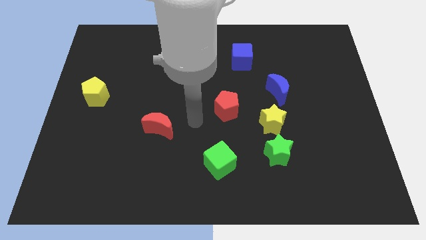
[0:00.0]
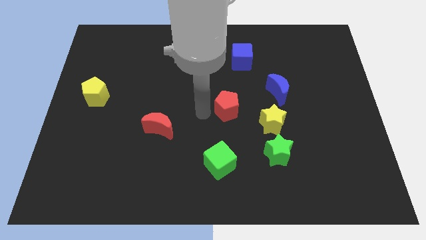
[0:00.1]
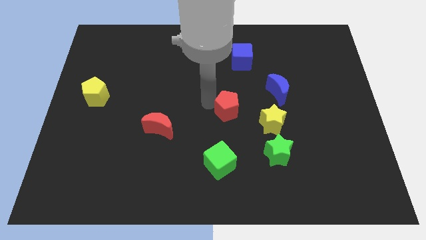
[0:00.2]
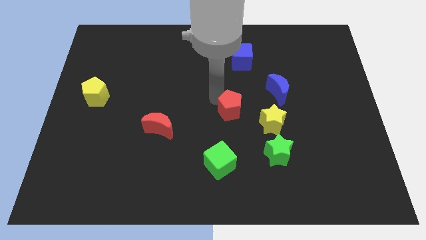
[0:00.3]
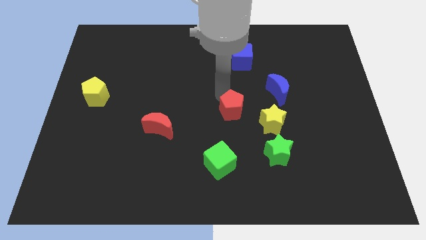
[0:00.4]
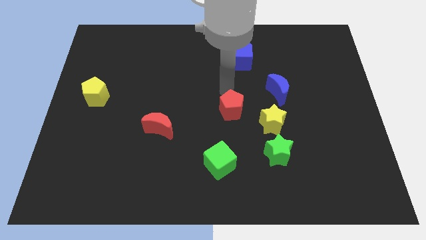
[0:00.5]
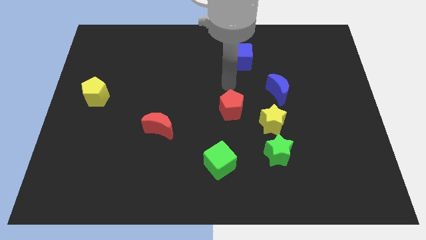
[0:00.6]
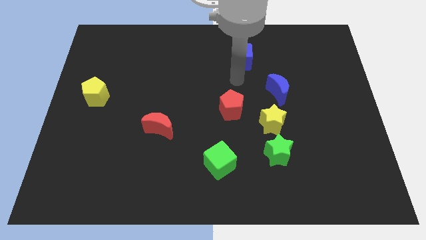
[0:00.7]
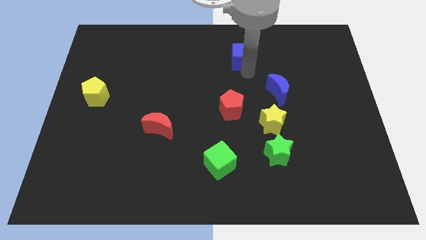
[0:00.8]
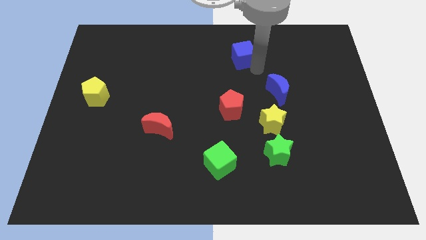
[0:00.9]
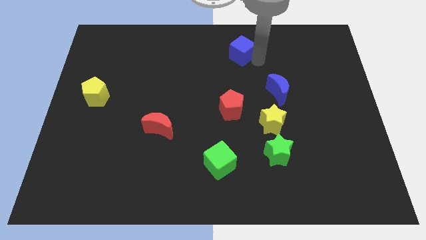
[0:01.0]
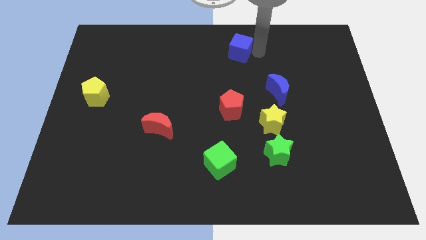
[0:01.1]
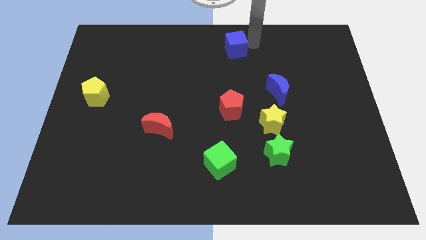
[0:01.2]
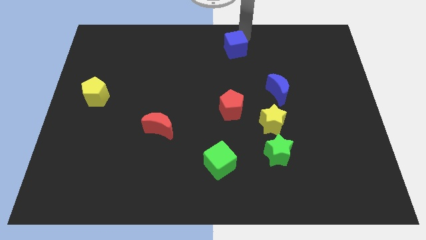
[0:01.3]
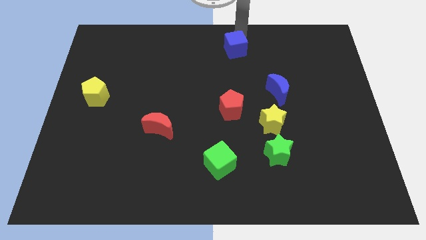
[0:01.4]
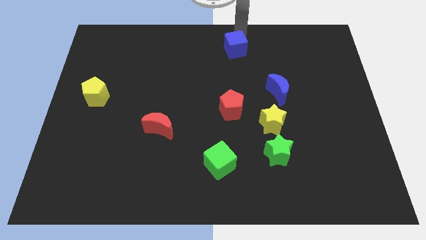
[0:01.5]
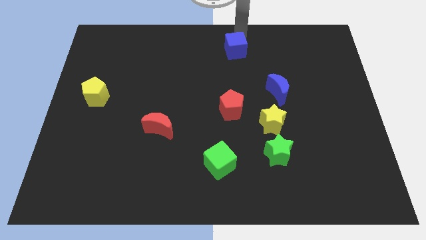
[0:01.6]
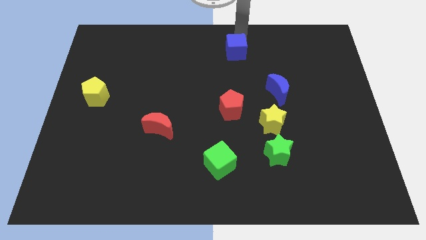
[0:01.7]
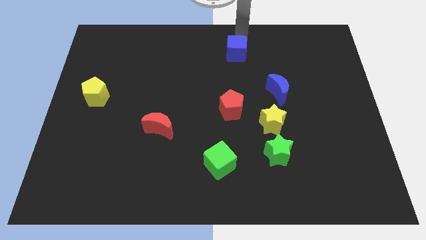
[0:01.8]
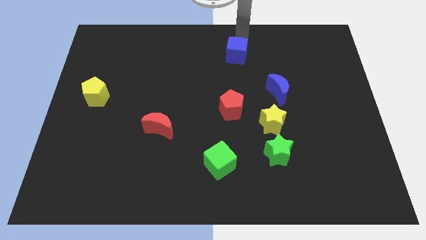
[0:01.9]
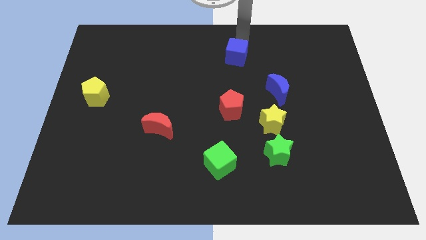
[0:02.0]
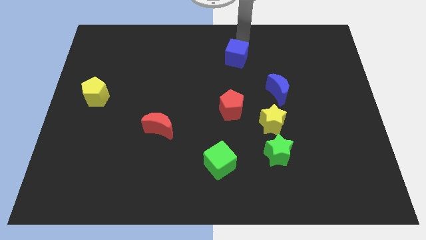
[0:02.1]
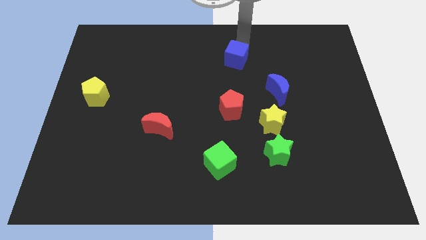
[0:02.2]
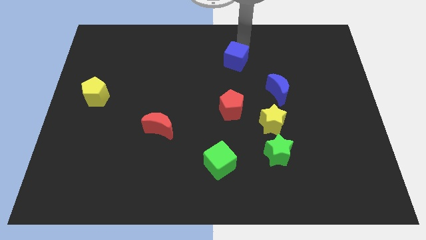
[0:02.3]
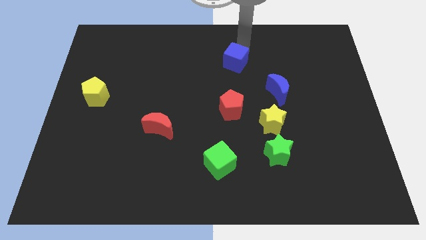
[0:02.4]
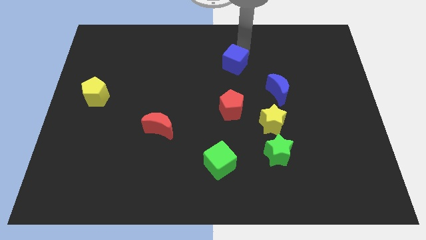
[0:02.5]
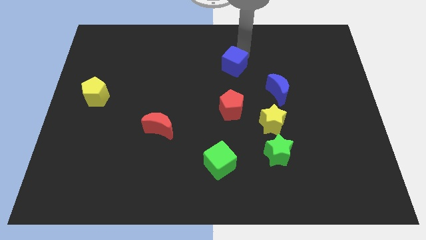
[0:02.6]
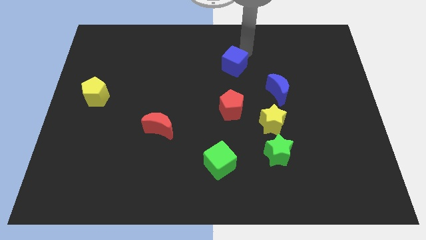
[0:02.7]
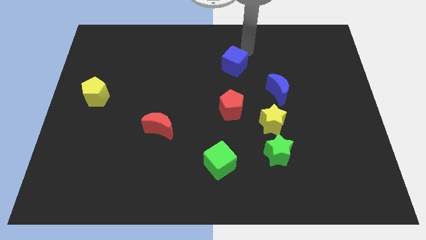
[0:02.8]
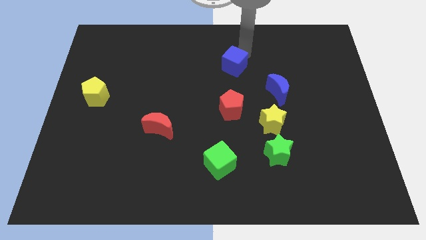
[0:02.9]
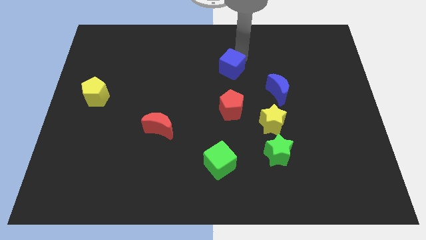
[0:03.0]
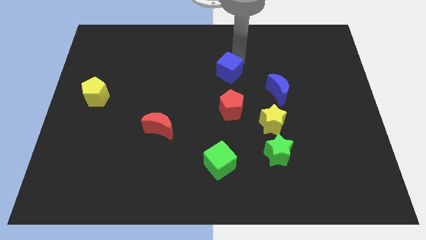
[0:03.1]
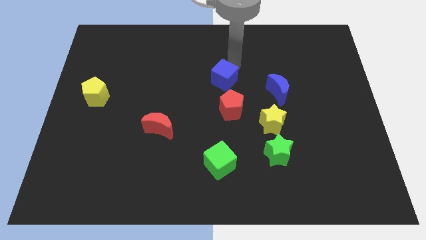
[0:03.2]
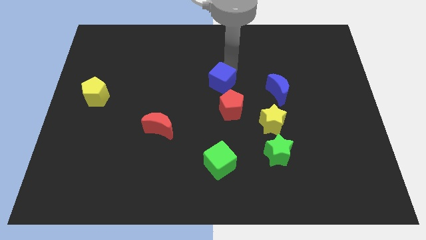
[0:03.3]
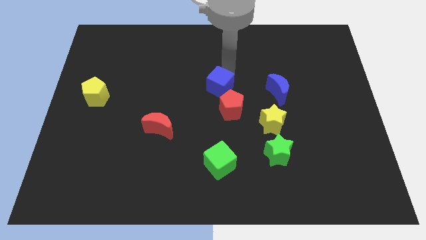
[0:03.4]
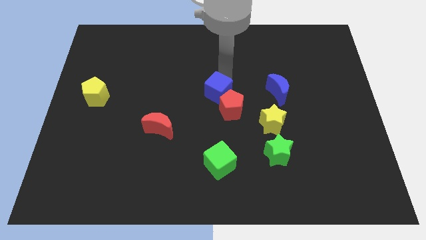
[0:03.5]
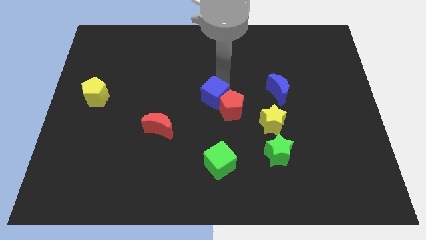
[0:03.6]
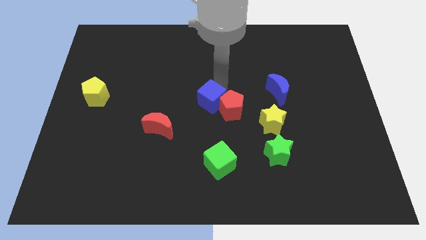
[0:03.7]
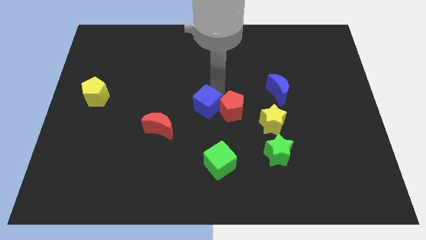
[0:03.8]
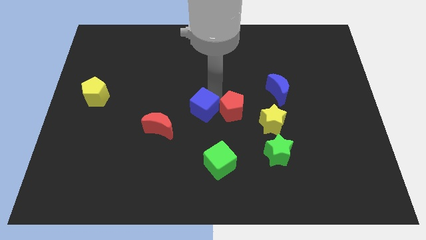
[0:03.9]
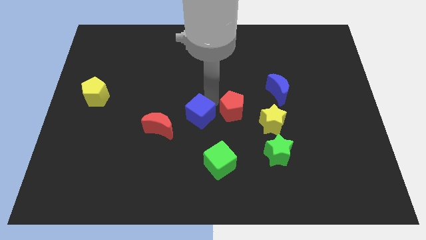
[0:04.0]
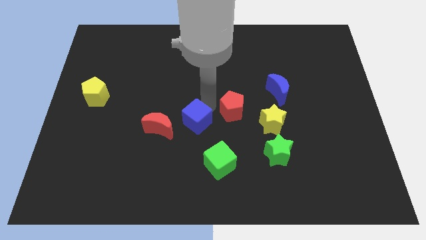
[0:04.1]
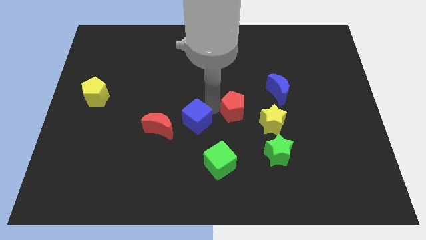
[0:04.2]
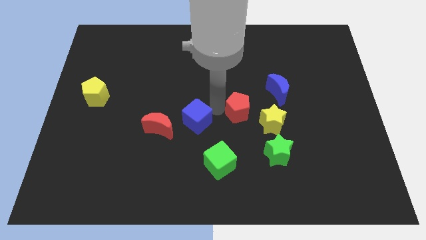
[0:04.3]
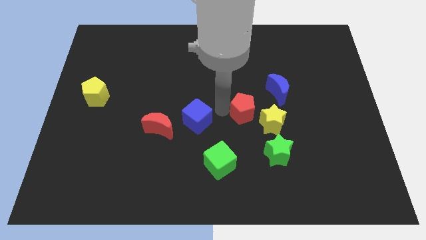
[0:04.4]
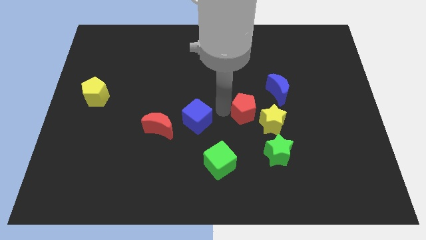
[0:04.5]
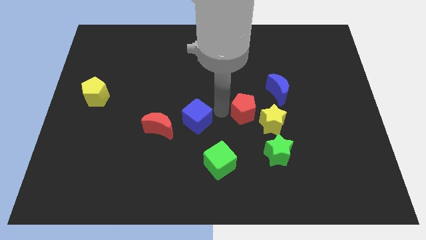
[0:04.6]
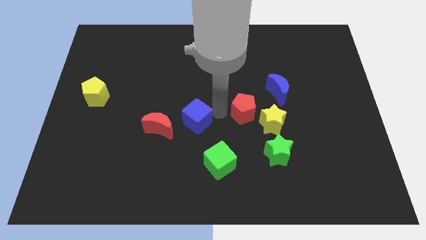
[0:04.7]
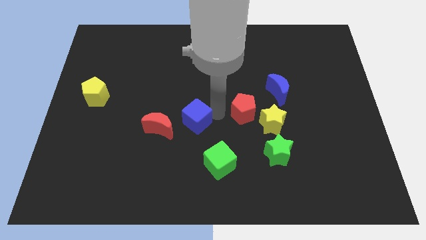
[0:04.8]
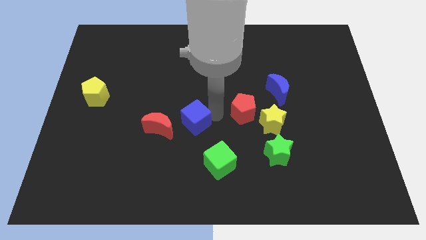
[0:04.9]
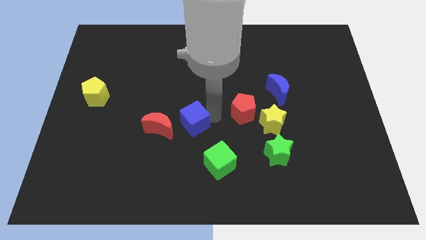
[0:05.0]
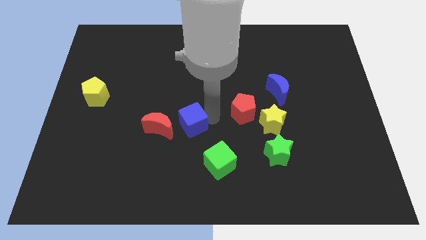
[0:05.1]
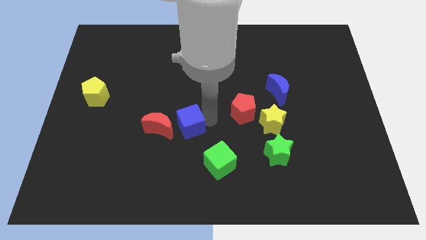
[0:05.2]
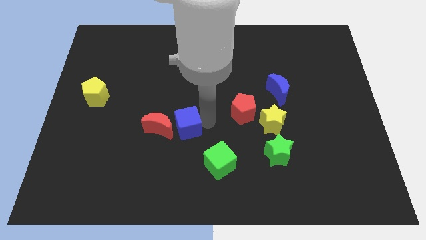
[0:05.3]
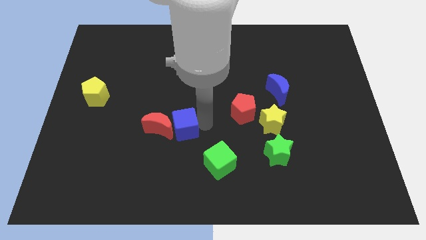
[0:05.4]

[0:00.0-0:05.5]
slide the blue cube towards the red moon

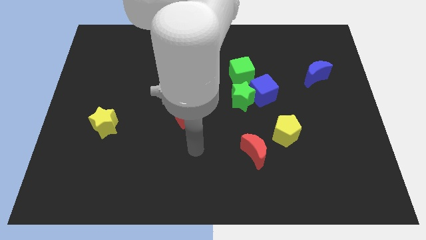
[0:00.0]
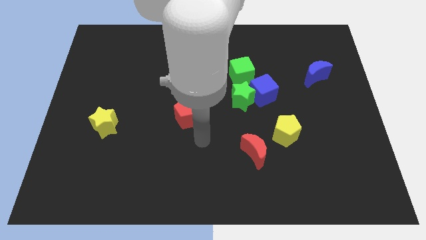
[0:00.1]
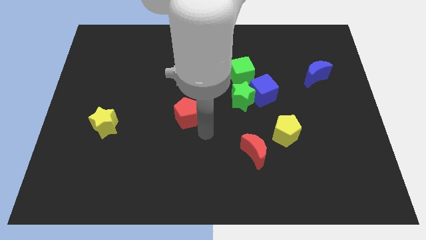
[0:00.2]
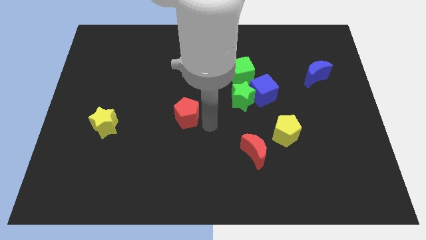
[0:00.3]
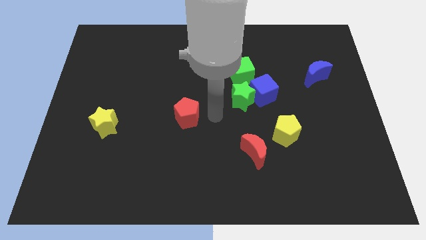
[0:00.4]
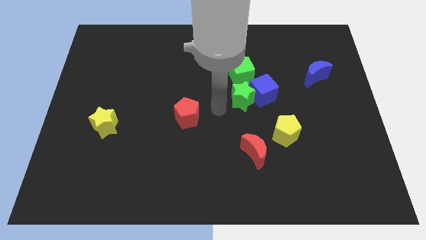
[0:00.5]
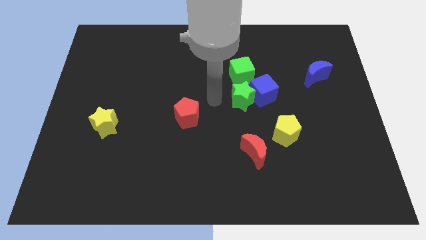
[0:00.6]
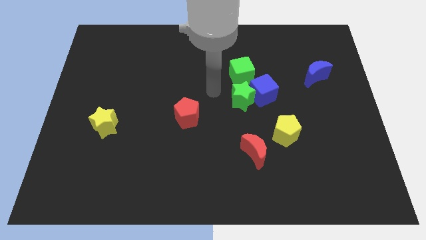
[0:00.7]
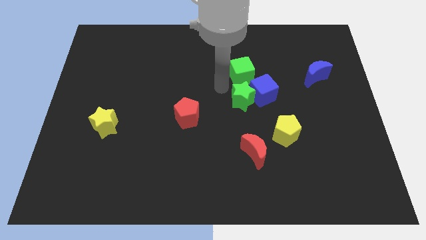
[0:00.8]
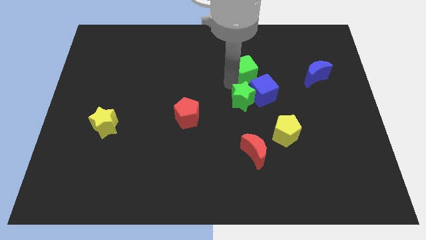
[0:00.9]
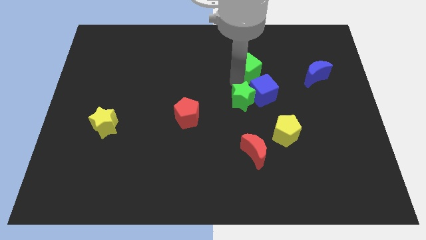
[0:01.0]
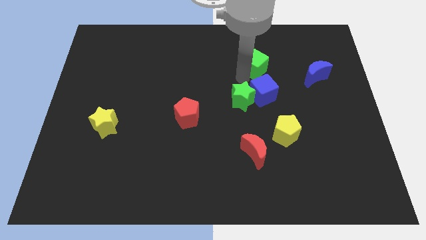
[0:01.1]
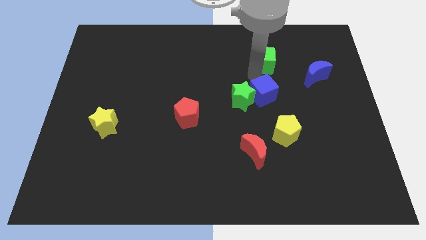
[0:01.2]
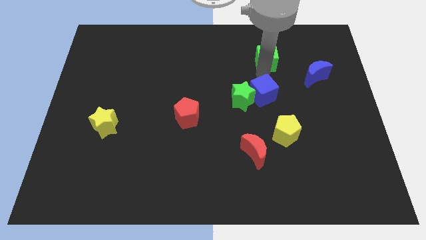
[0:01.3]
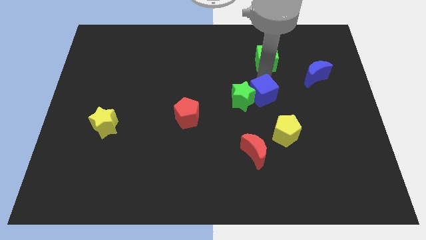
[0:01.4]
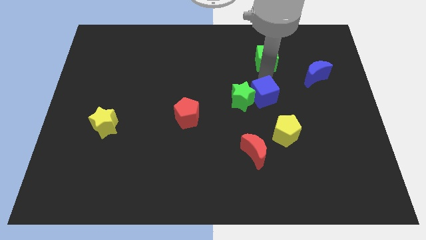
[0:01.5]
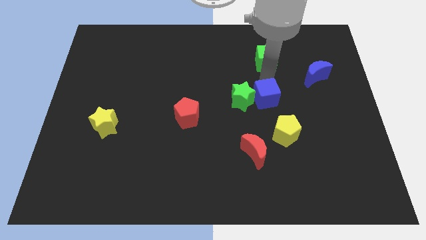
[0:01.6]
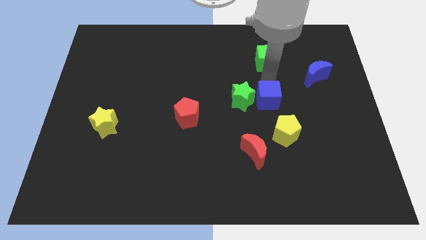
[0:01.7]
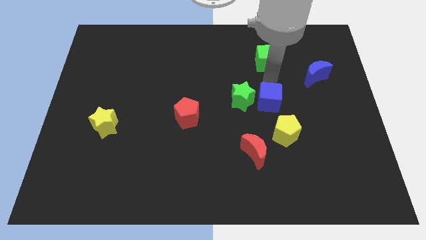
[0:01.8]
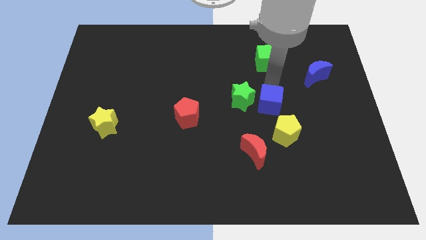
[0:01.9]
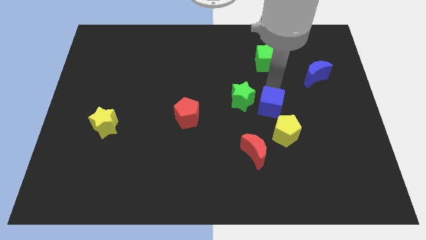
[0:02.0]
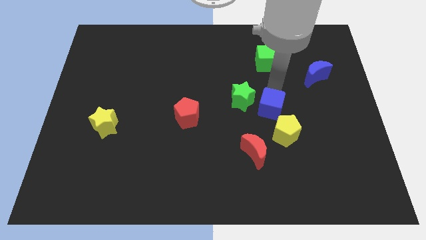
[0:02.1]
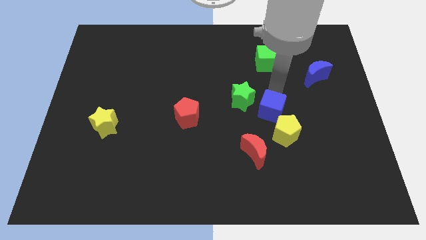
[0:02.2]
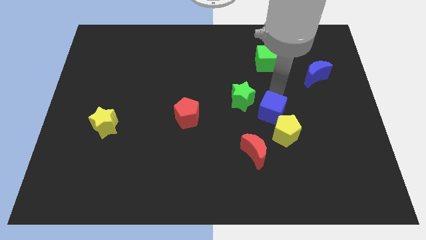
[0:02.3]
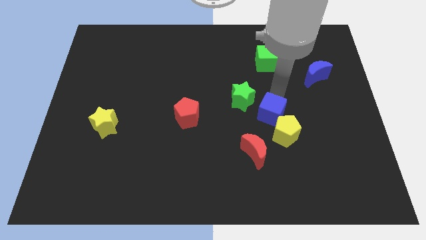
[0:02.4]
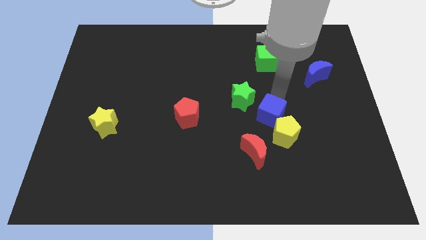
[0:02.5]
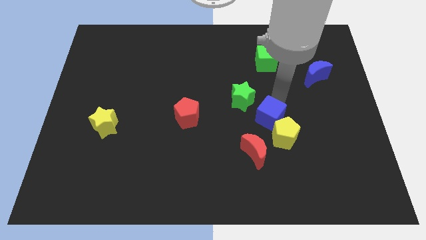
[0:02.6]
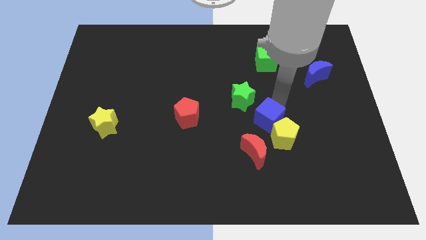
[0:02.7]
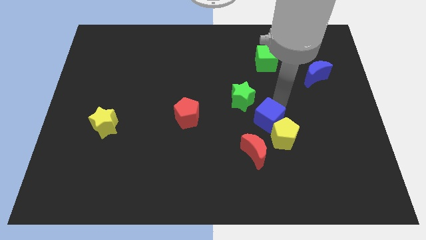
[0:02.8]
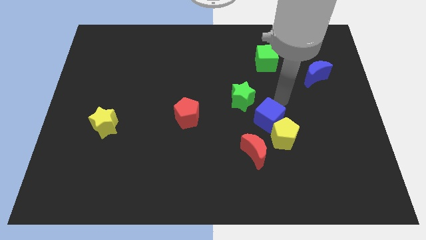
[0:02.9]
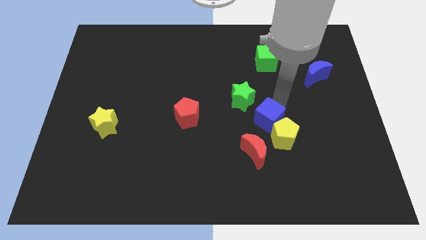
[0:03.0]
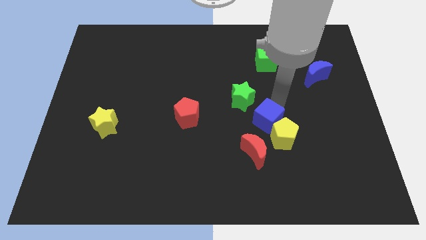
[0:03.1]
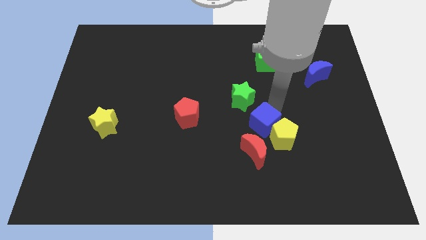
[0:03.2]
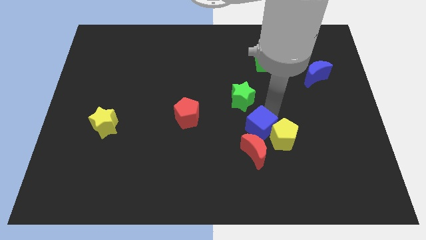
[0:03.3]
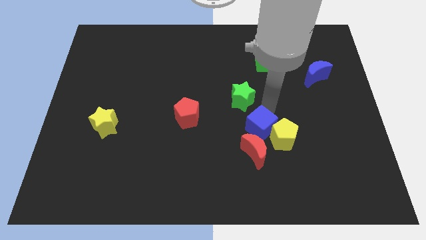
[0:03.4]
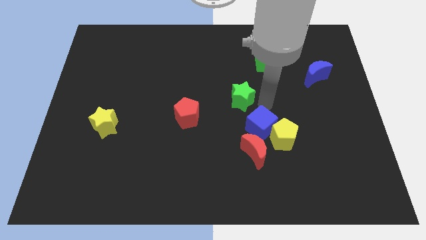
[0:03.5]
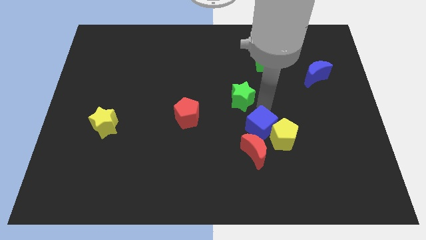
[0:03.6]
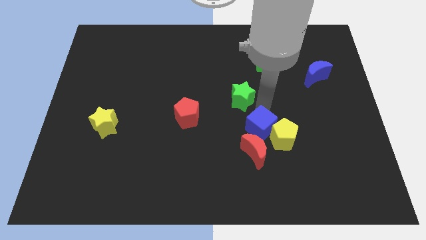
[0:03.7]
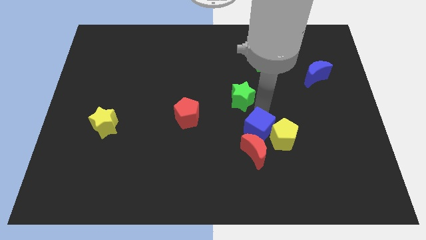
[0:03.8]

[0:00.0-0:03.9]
slide the blue cube next to the red moon
